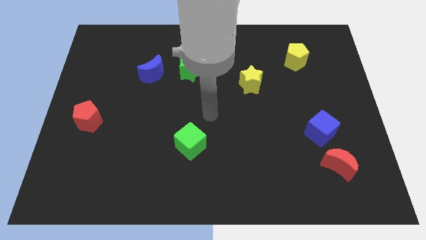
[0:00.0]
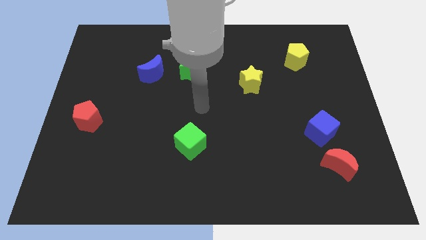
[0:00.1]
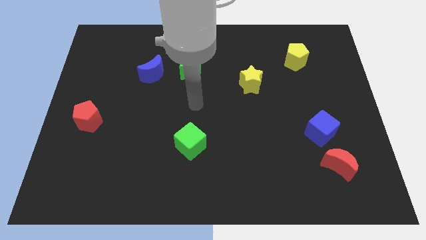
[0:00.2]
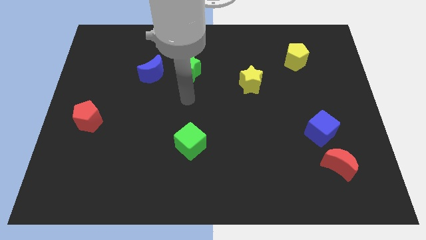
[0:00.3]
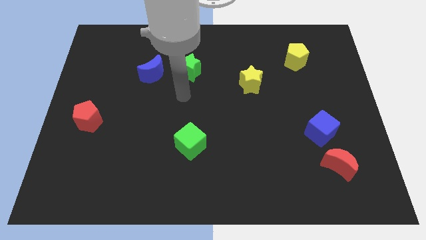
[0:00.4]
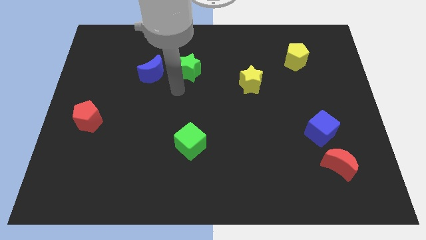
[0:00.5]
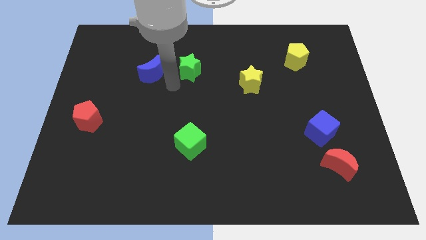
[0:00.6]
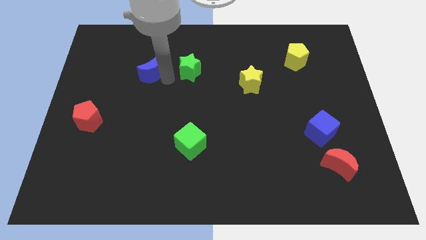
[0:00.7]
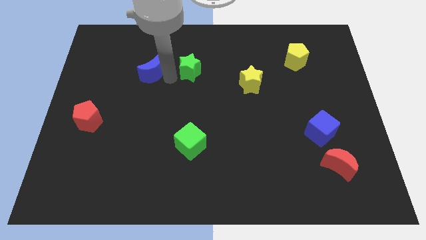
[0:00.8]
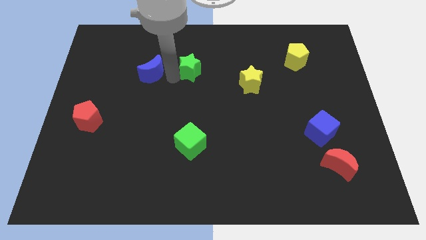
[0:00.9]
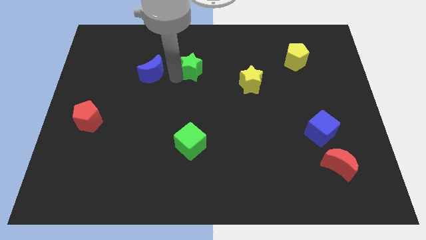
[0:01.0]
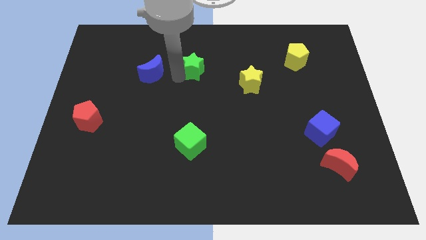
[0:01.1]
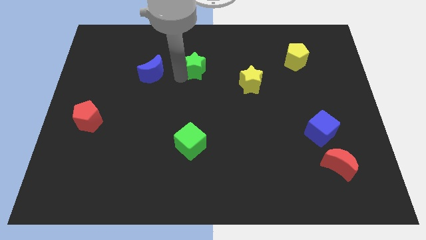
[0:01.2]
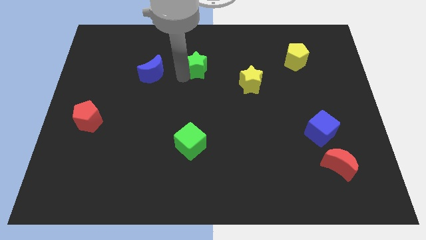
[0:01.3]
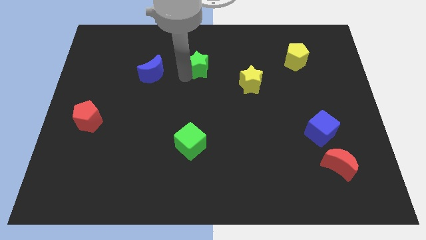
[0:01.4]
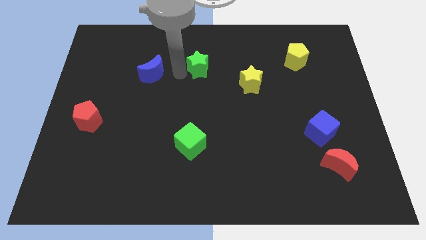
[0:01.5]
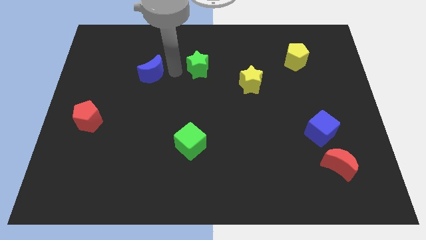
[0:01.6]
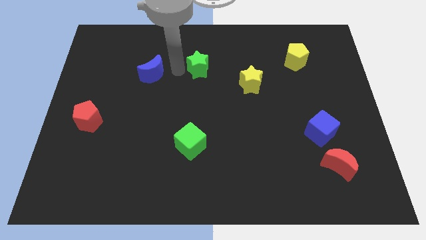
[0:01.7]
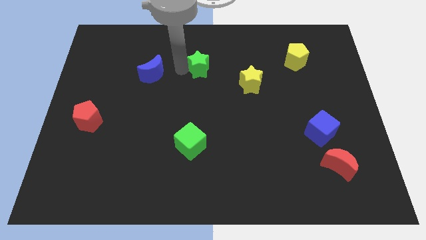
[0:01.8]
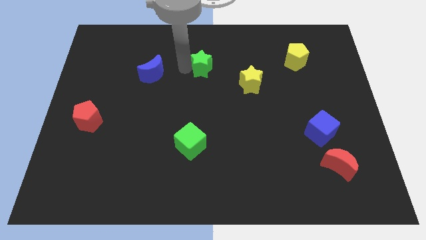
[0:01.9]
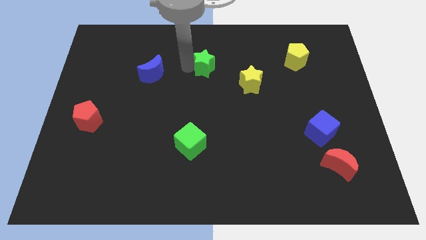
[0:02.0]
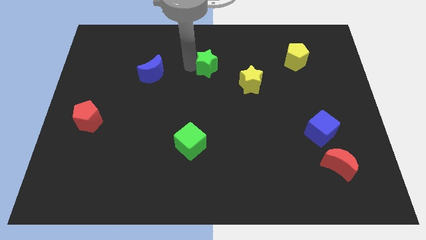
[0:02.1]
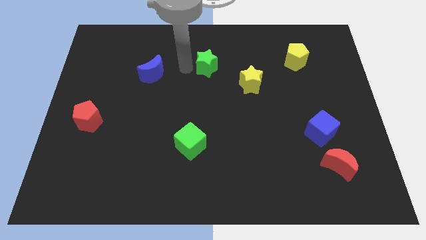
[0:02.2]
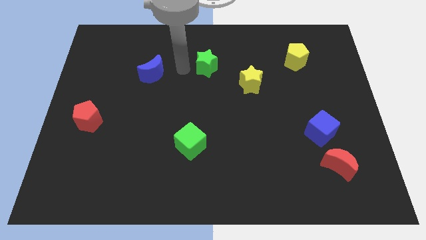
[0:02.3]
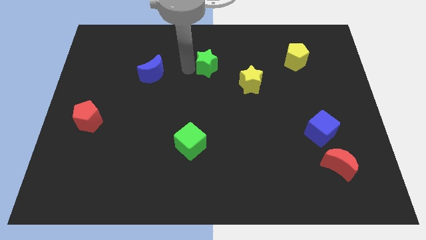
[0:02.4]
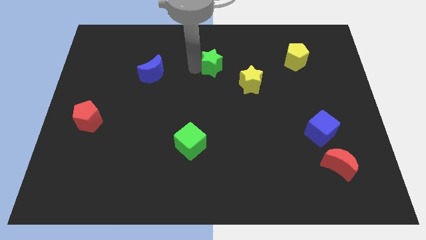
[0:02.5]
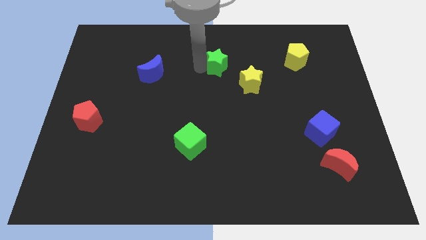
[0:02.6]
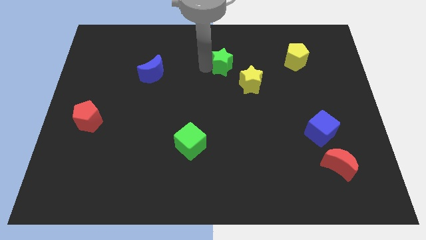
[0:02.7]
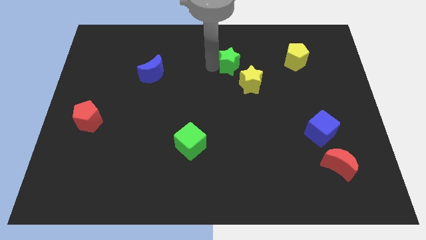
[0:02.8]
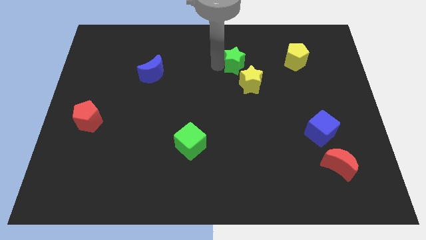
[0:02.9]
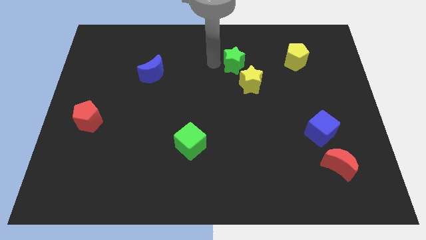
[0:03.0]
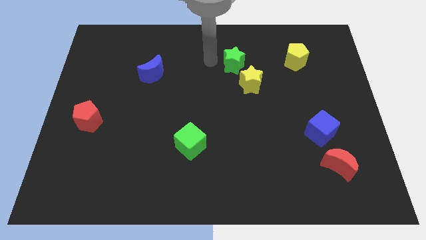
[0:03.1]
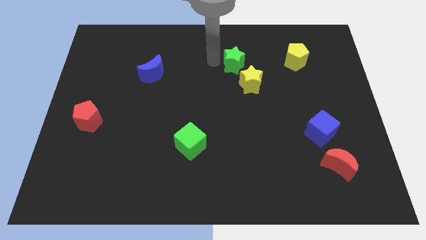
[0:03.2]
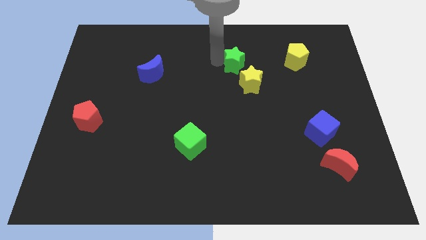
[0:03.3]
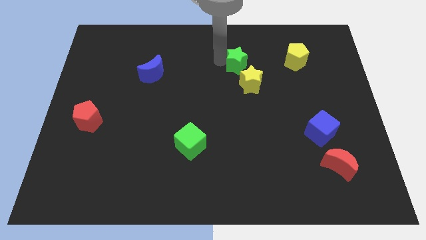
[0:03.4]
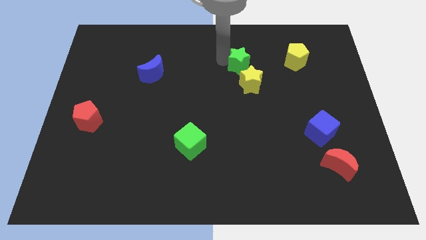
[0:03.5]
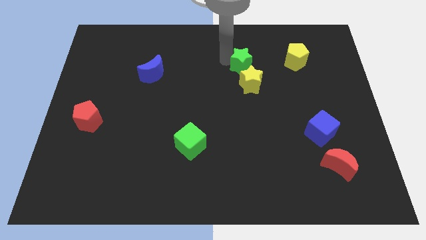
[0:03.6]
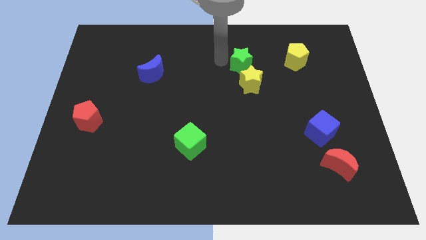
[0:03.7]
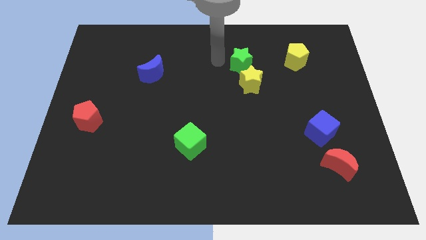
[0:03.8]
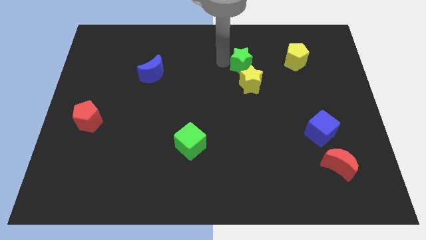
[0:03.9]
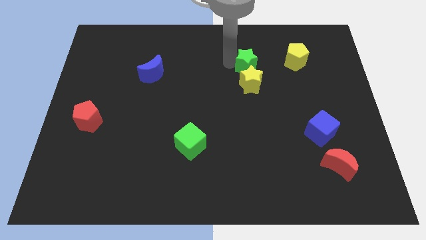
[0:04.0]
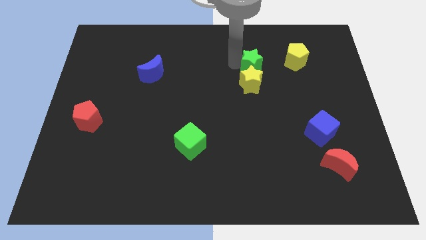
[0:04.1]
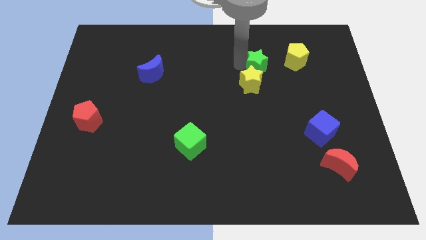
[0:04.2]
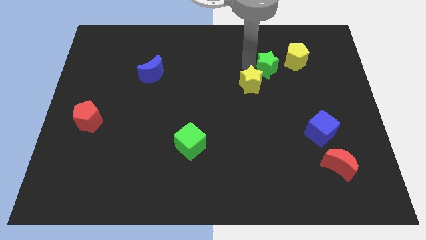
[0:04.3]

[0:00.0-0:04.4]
move the green star to the right

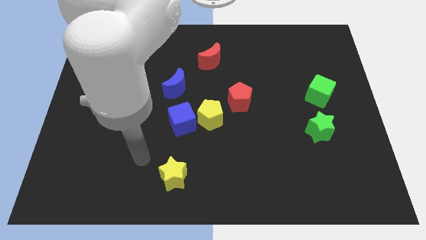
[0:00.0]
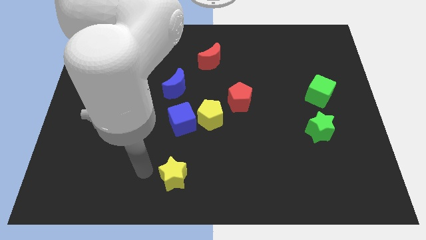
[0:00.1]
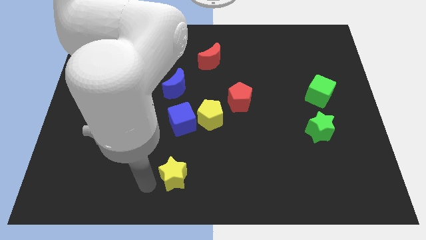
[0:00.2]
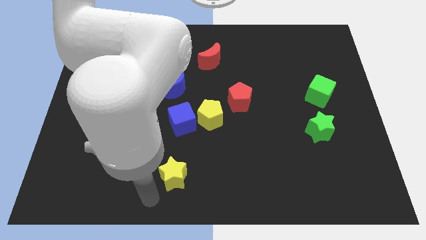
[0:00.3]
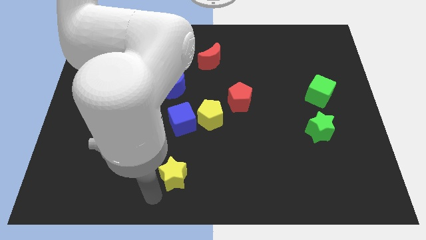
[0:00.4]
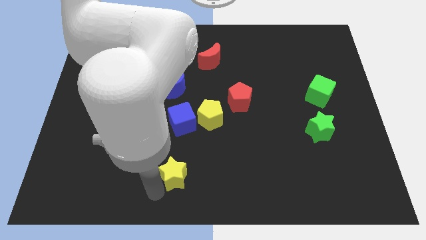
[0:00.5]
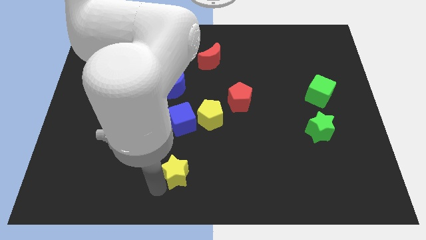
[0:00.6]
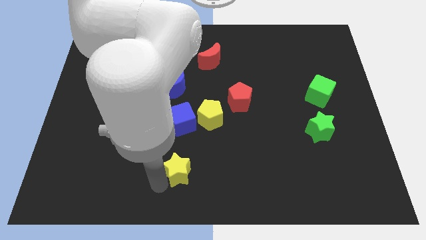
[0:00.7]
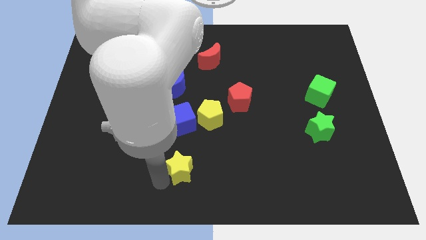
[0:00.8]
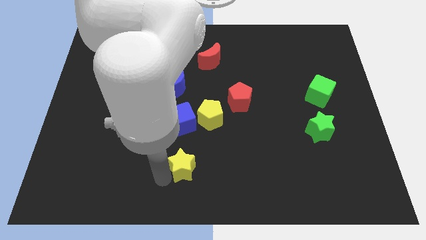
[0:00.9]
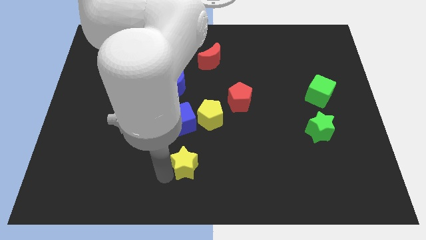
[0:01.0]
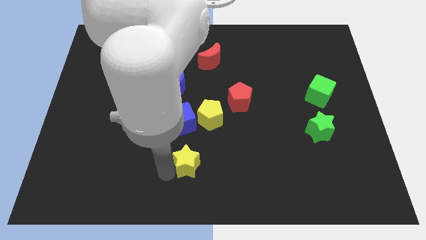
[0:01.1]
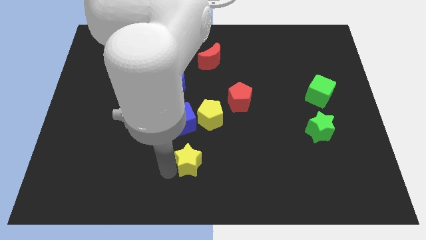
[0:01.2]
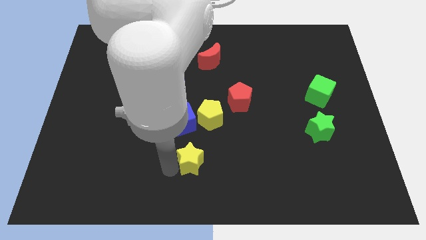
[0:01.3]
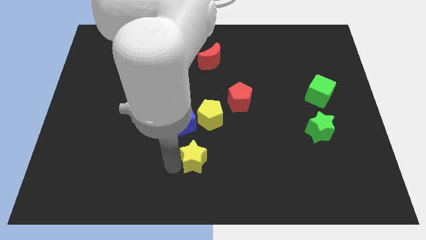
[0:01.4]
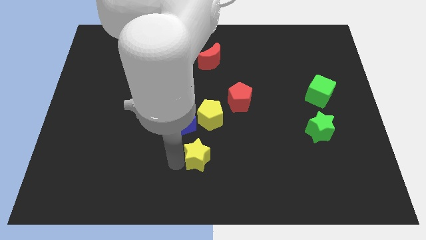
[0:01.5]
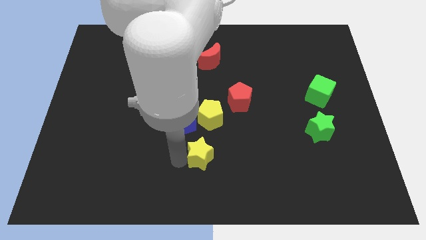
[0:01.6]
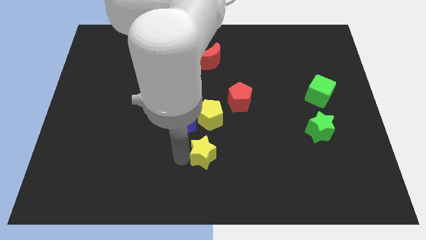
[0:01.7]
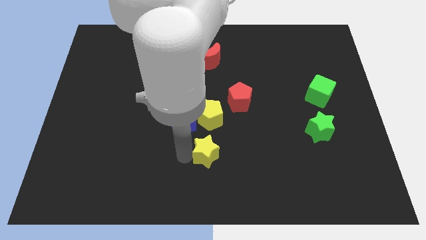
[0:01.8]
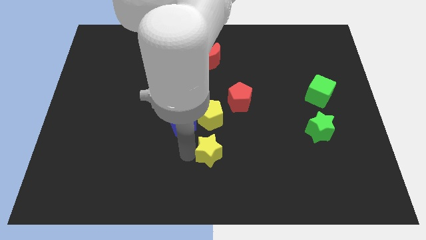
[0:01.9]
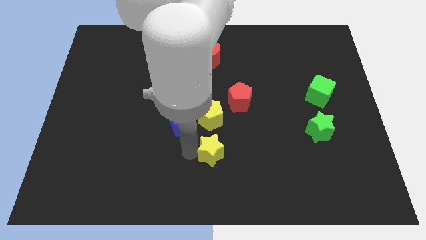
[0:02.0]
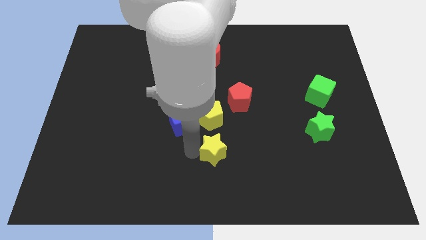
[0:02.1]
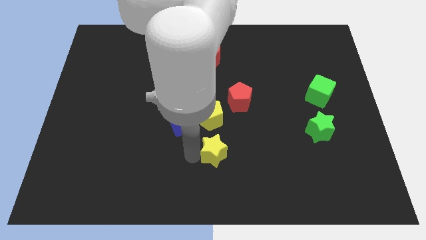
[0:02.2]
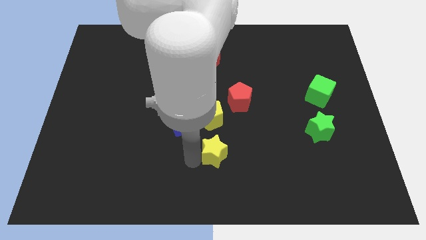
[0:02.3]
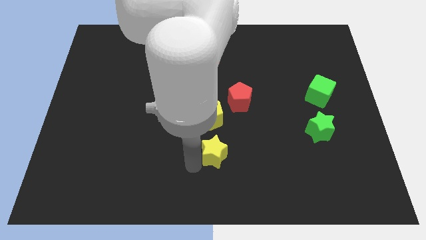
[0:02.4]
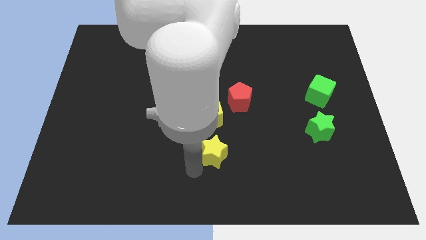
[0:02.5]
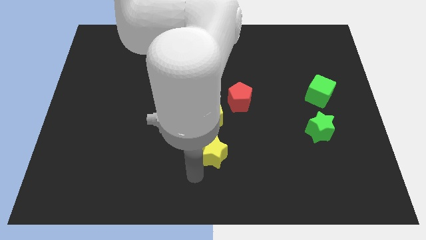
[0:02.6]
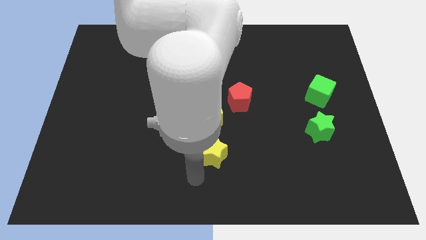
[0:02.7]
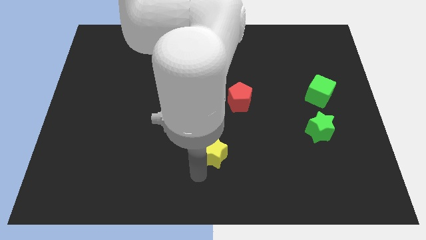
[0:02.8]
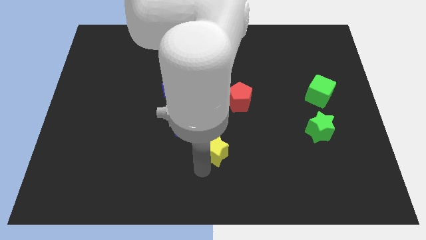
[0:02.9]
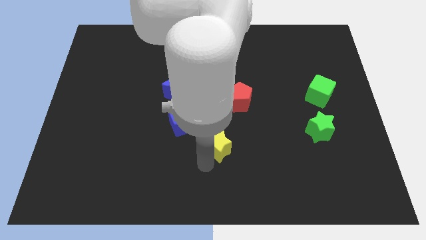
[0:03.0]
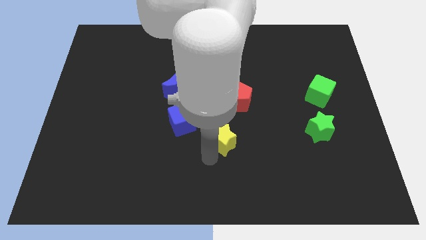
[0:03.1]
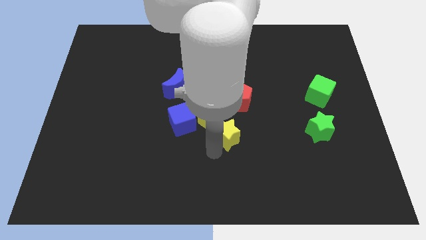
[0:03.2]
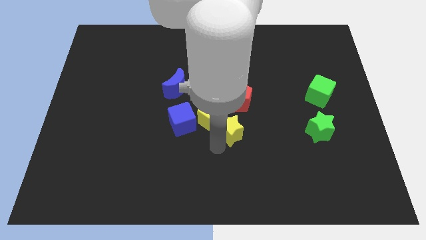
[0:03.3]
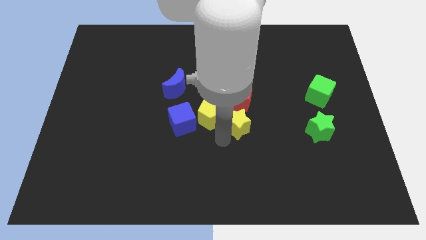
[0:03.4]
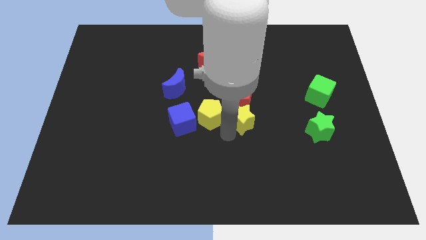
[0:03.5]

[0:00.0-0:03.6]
move the yellow star up and to the right diagonally
